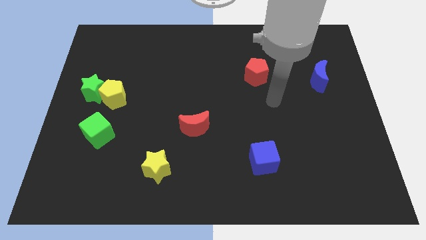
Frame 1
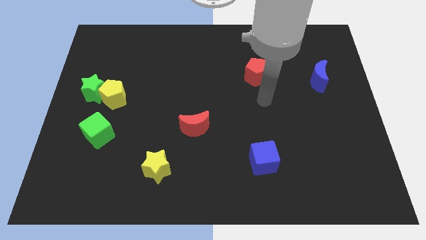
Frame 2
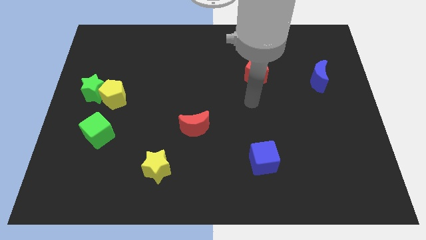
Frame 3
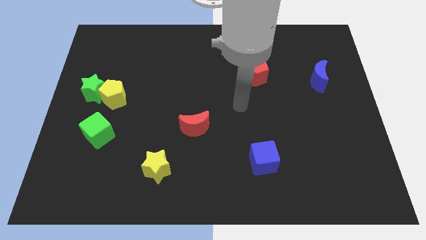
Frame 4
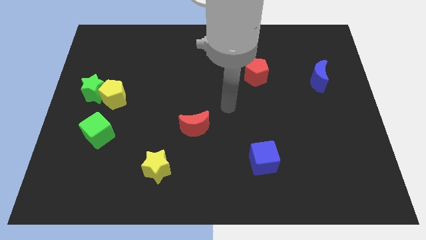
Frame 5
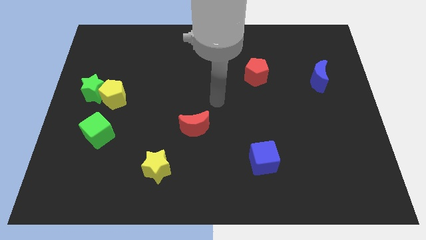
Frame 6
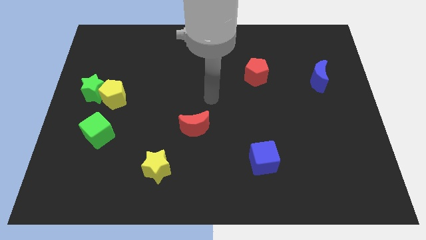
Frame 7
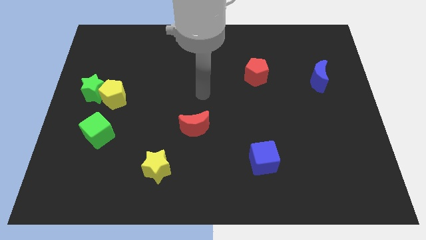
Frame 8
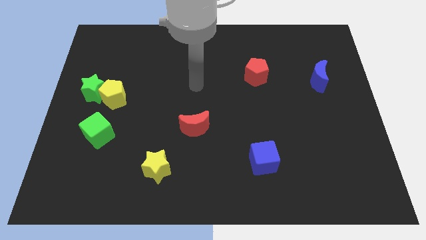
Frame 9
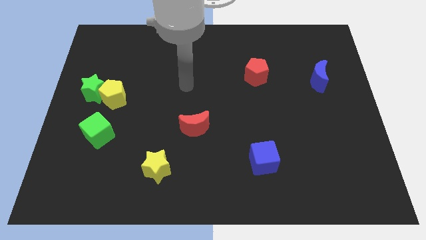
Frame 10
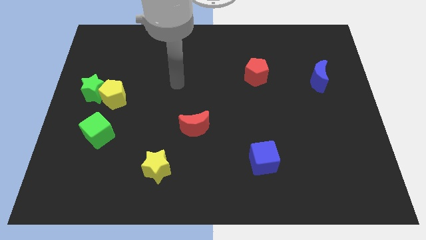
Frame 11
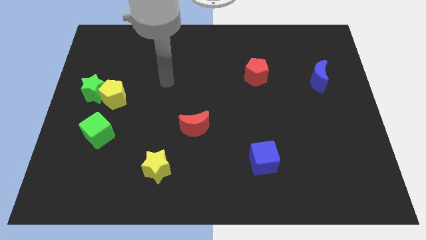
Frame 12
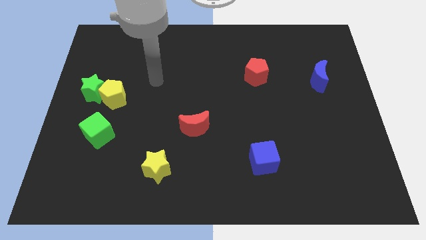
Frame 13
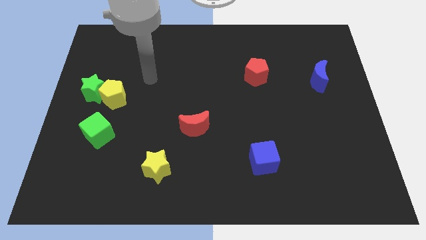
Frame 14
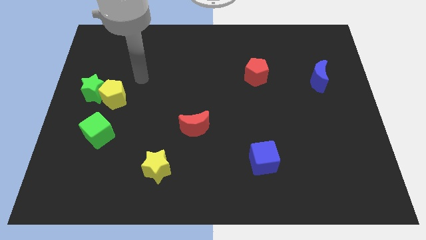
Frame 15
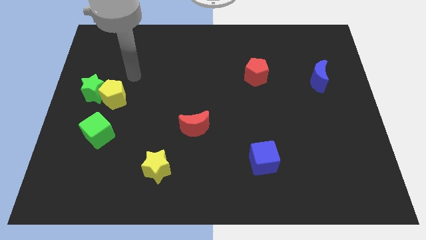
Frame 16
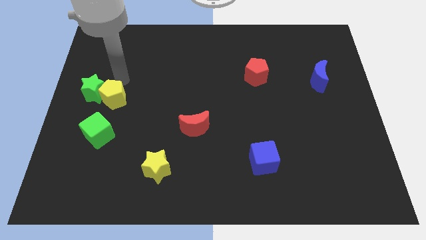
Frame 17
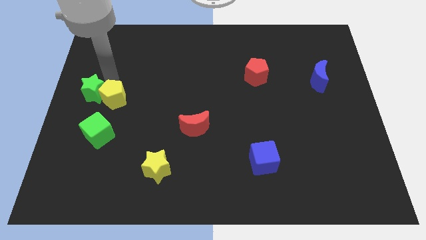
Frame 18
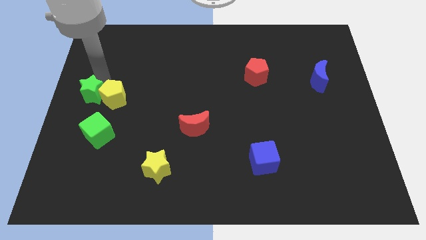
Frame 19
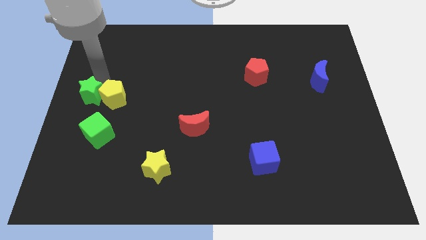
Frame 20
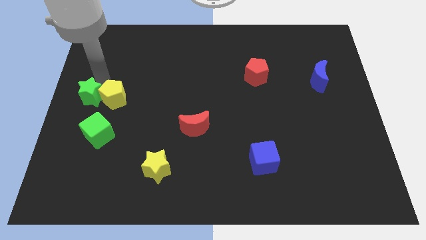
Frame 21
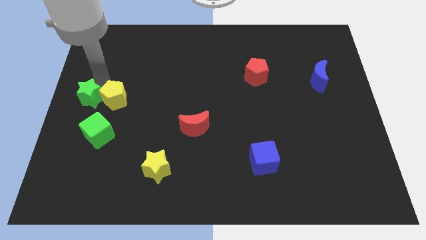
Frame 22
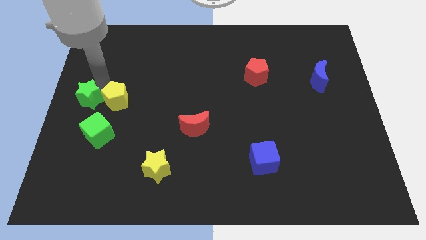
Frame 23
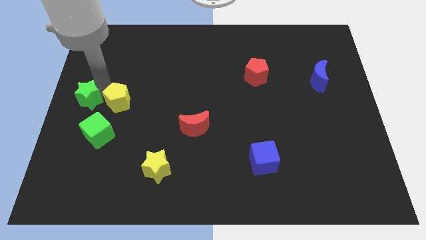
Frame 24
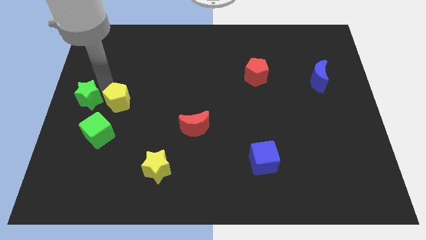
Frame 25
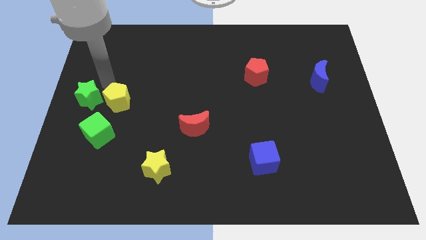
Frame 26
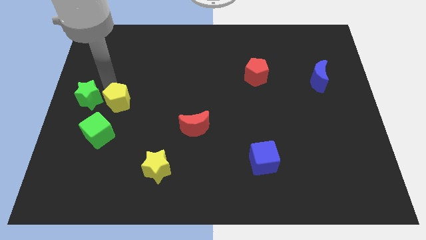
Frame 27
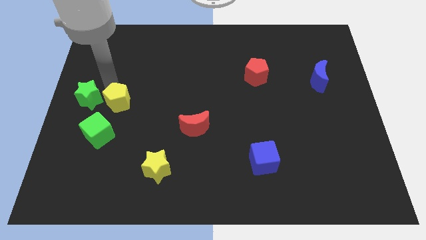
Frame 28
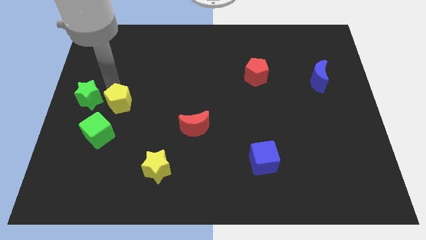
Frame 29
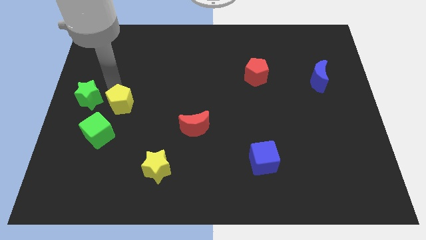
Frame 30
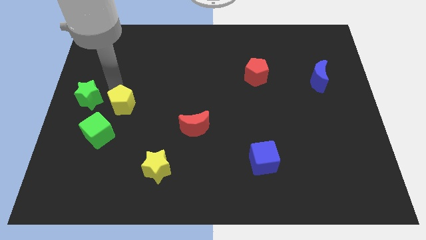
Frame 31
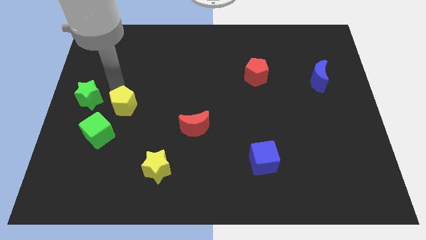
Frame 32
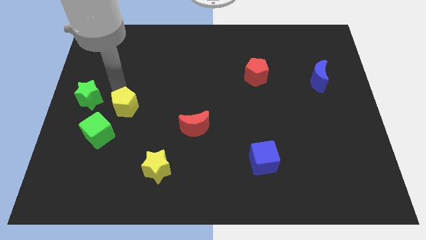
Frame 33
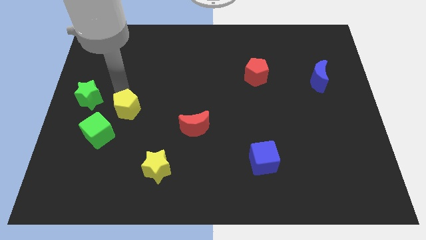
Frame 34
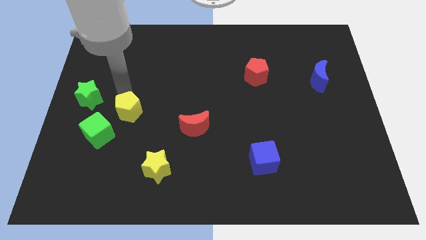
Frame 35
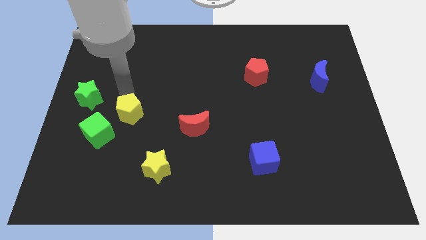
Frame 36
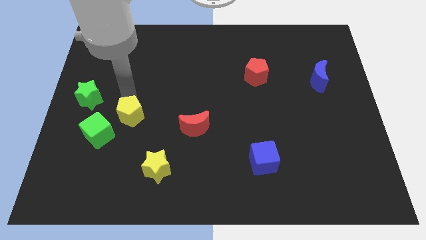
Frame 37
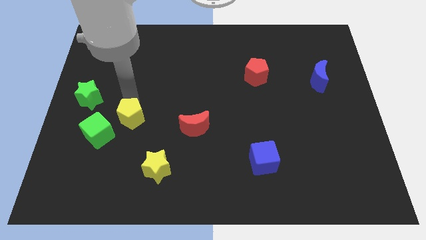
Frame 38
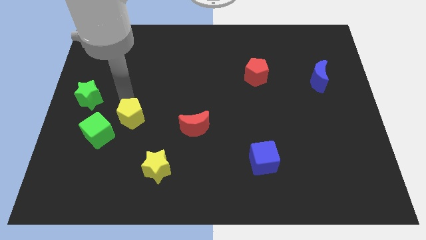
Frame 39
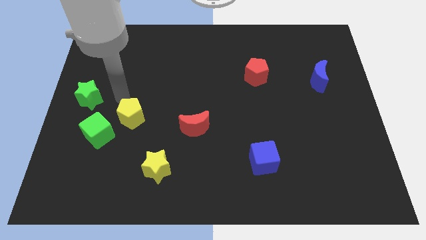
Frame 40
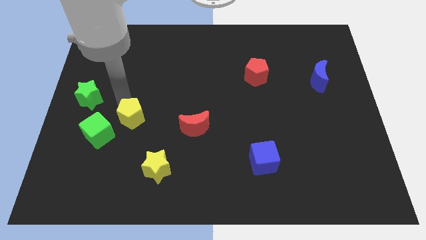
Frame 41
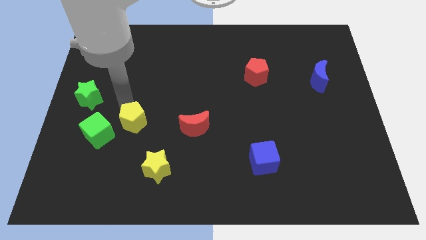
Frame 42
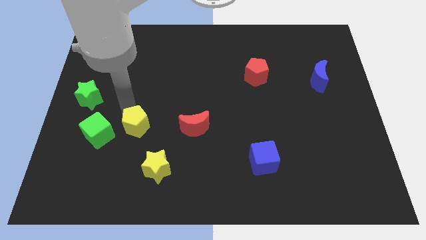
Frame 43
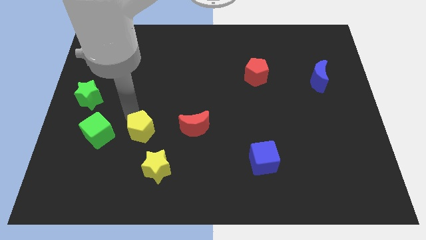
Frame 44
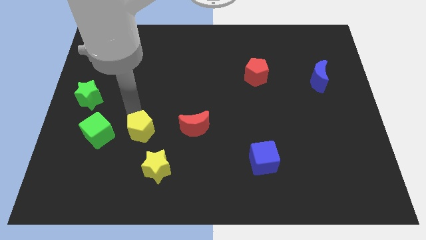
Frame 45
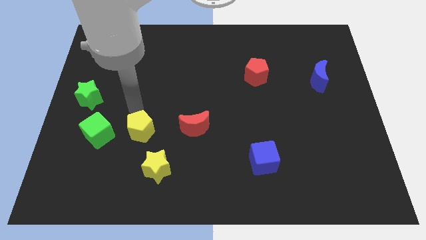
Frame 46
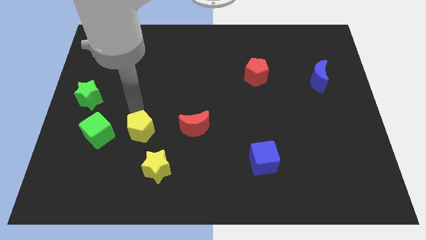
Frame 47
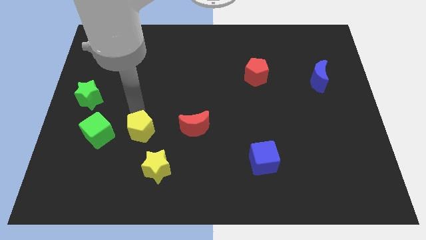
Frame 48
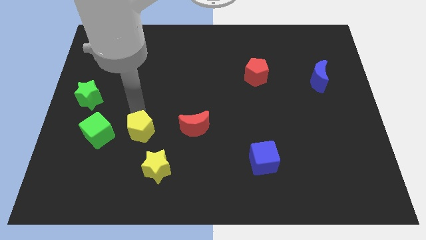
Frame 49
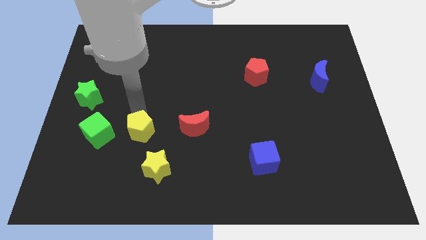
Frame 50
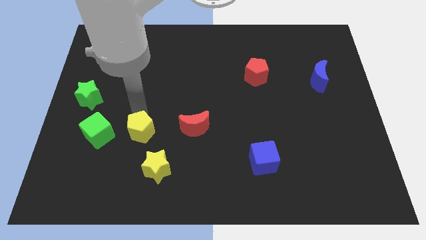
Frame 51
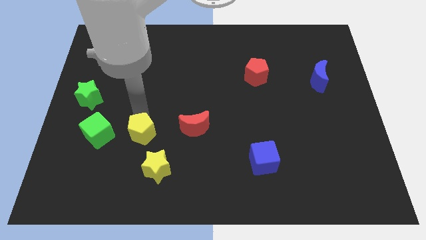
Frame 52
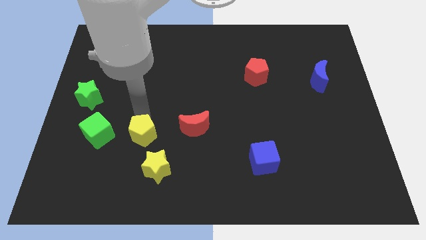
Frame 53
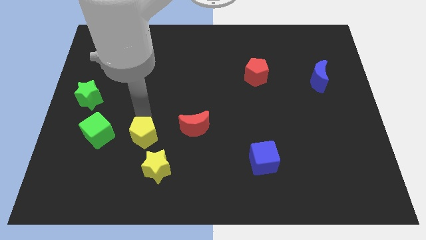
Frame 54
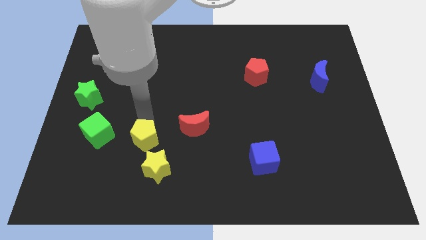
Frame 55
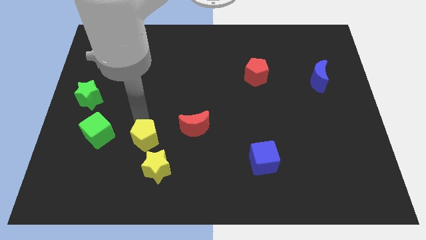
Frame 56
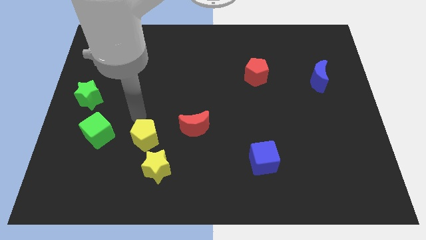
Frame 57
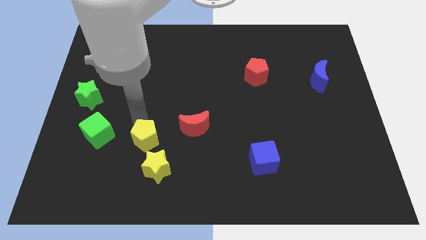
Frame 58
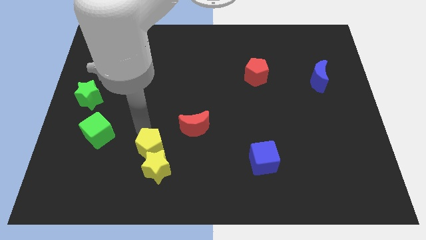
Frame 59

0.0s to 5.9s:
move the yellow pentagon close to the yellow star
